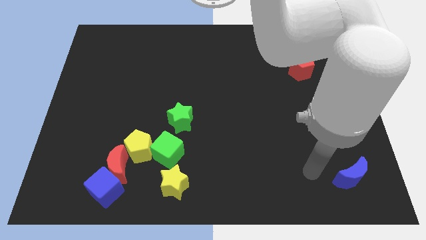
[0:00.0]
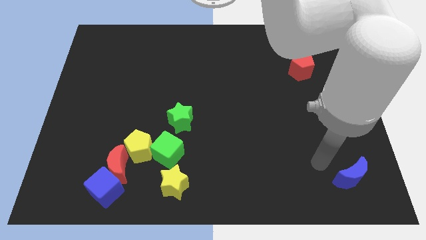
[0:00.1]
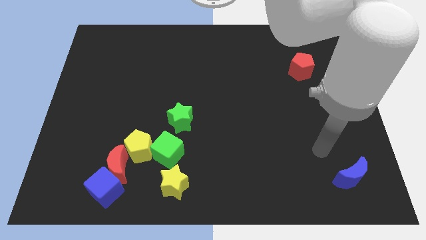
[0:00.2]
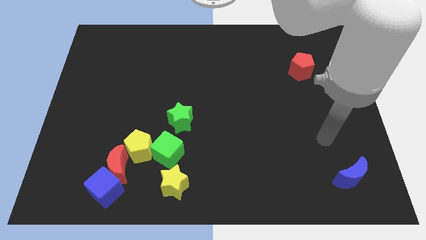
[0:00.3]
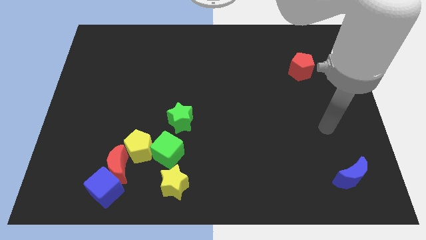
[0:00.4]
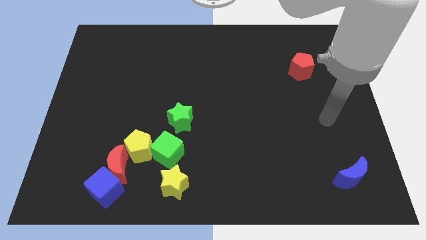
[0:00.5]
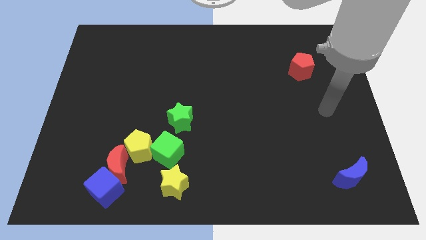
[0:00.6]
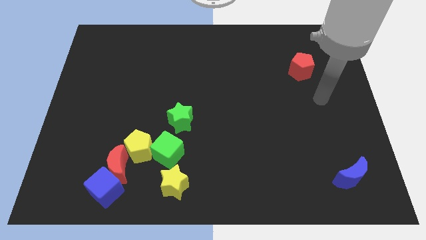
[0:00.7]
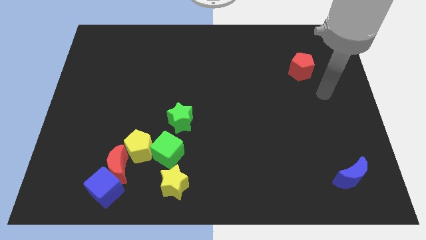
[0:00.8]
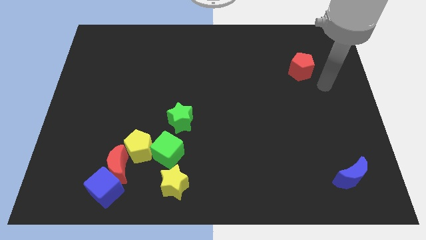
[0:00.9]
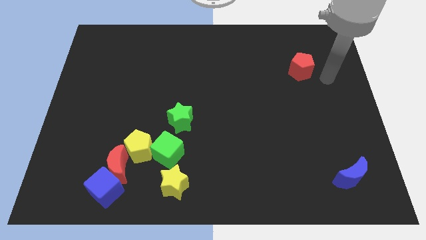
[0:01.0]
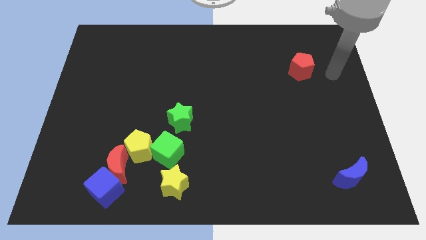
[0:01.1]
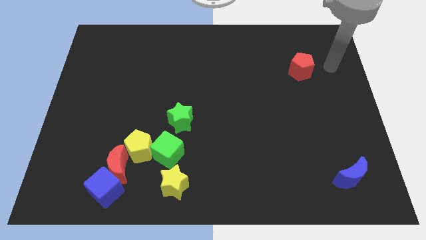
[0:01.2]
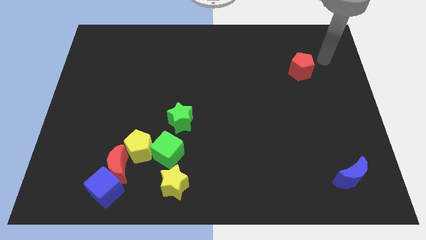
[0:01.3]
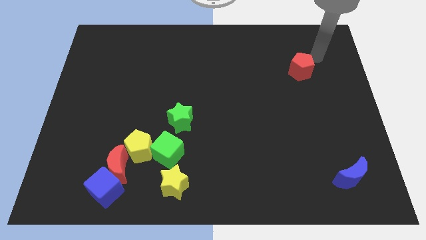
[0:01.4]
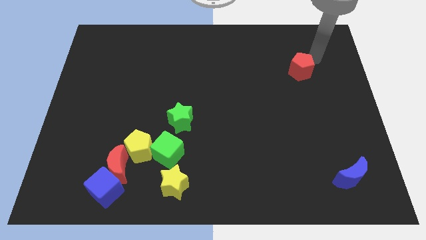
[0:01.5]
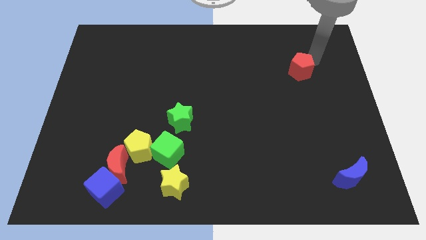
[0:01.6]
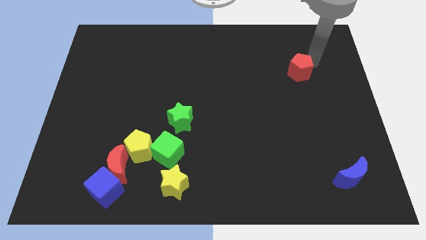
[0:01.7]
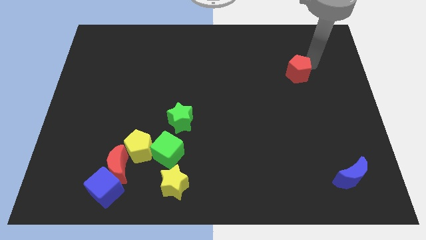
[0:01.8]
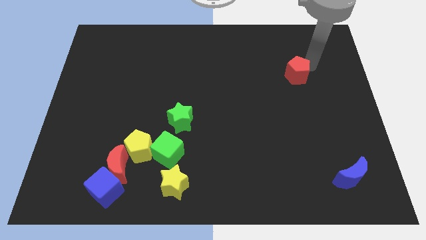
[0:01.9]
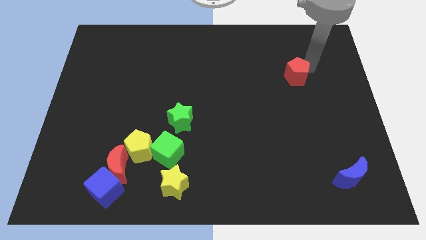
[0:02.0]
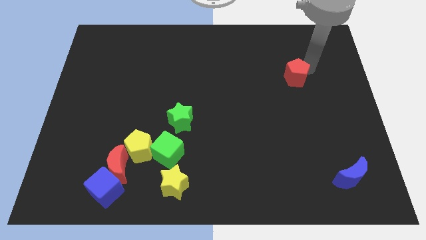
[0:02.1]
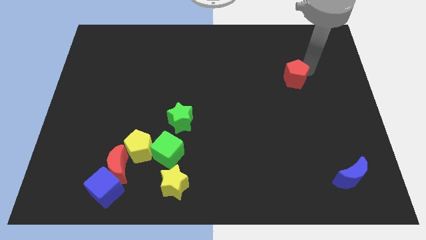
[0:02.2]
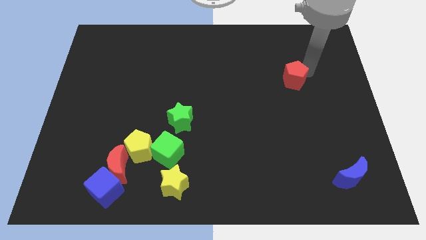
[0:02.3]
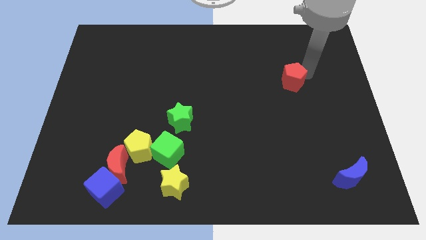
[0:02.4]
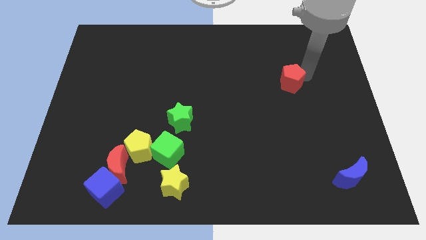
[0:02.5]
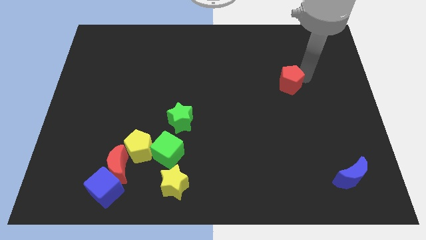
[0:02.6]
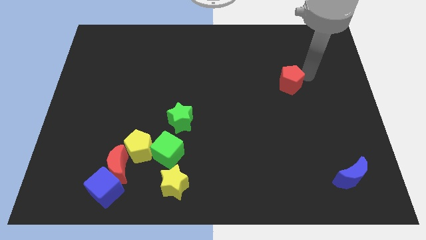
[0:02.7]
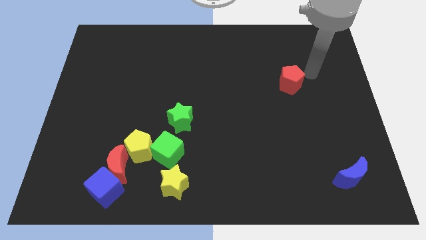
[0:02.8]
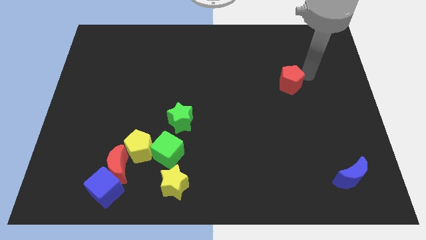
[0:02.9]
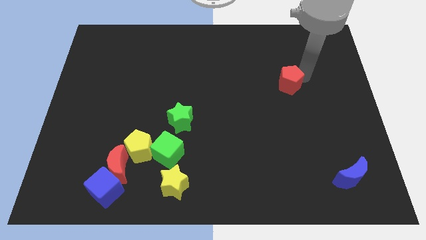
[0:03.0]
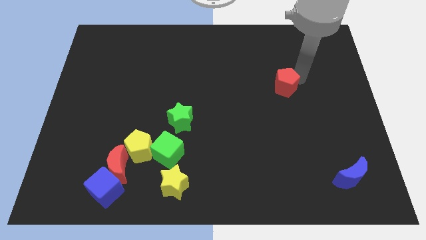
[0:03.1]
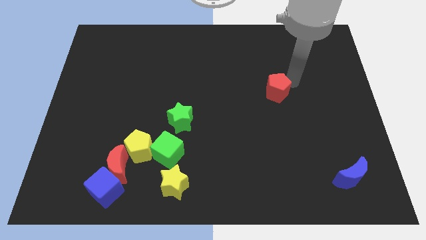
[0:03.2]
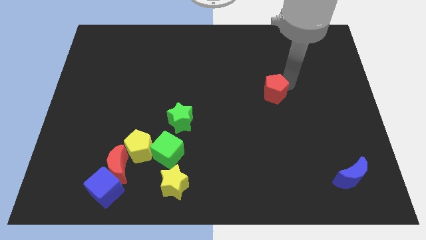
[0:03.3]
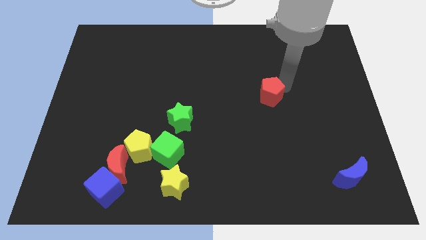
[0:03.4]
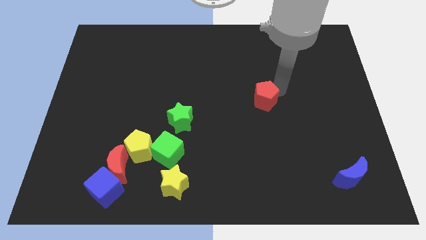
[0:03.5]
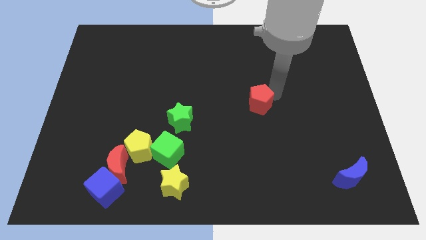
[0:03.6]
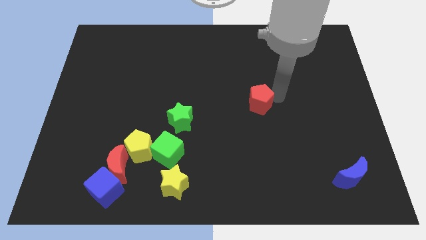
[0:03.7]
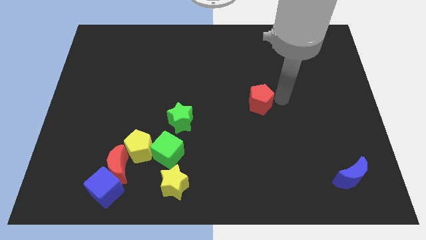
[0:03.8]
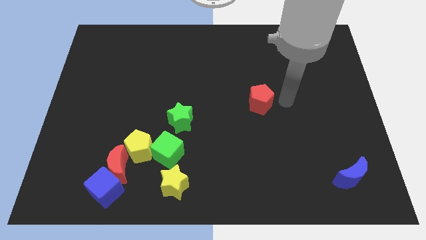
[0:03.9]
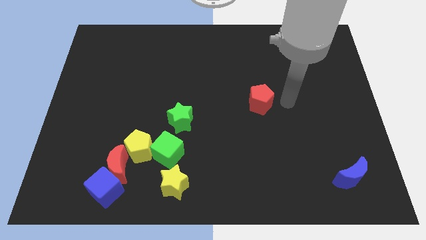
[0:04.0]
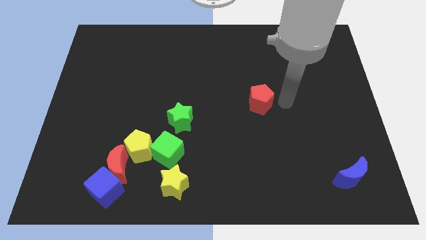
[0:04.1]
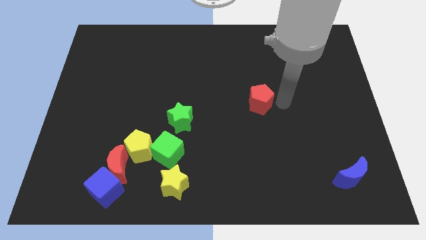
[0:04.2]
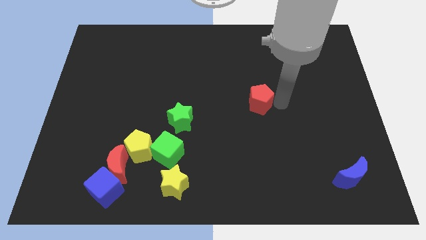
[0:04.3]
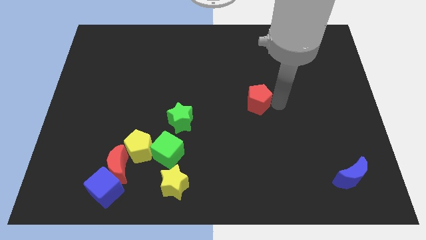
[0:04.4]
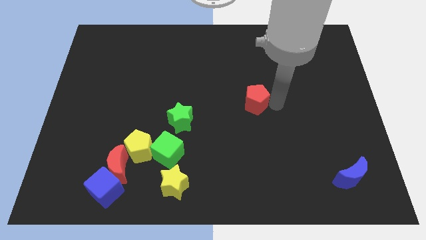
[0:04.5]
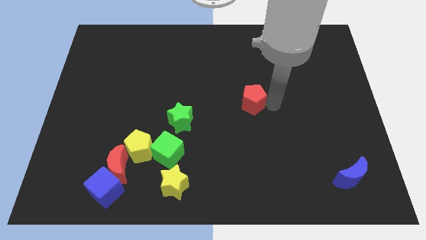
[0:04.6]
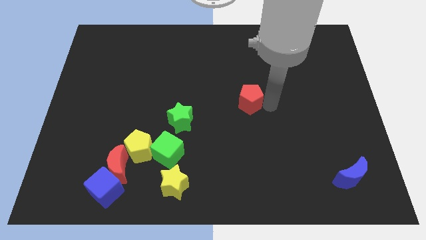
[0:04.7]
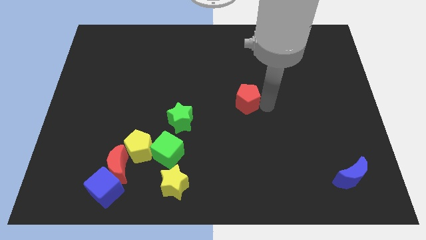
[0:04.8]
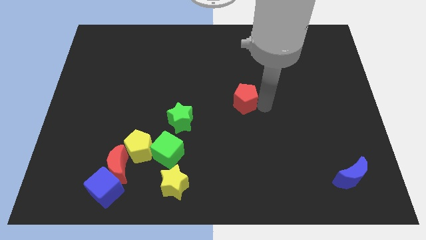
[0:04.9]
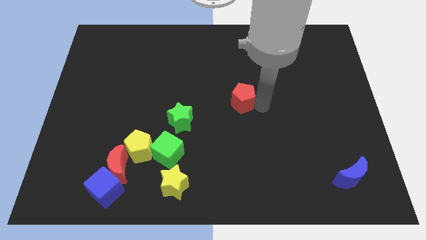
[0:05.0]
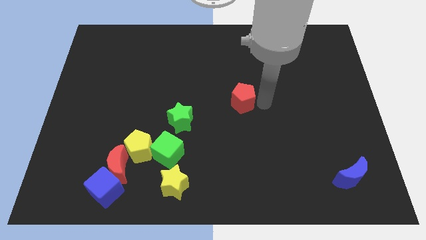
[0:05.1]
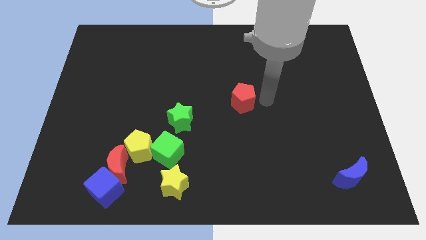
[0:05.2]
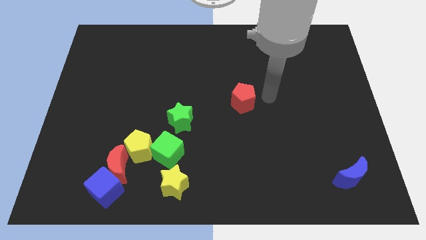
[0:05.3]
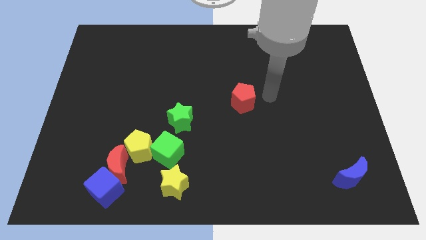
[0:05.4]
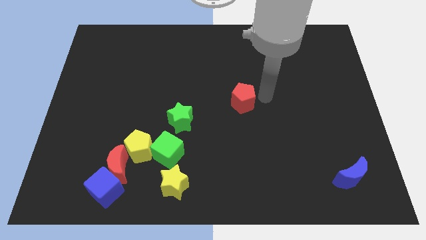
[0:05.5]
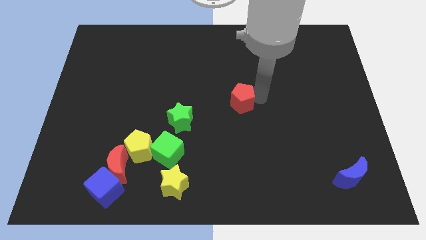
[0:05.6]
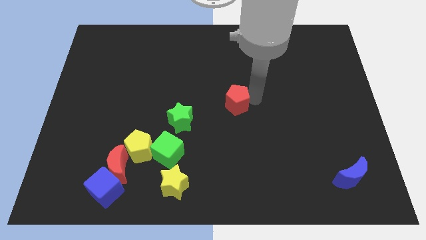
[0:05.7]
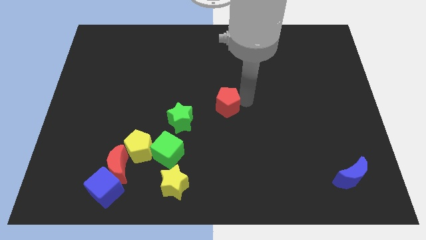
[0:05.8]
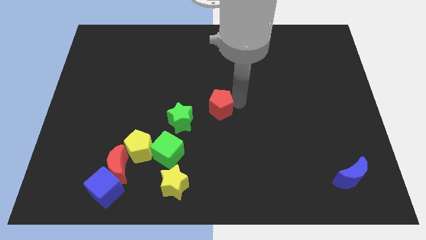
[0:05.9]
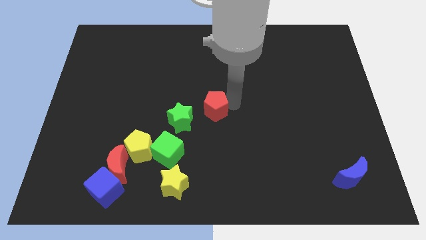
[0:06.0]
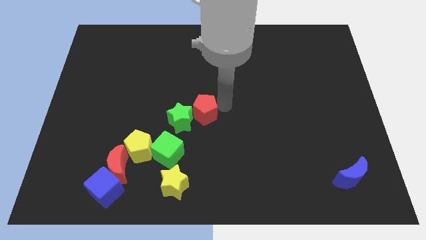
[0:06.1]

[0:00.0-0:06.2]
move the red pentagon close to the green star
